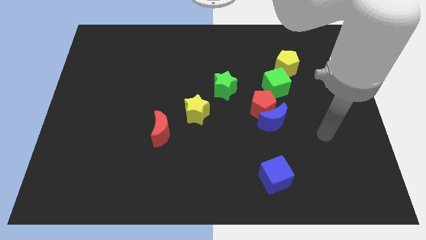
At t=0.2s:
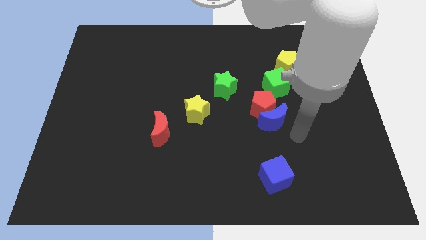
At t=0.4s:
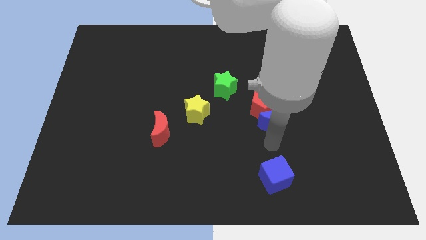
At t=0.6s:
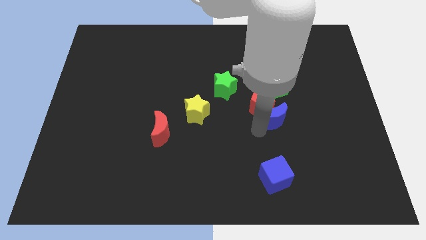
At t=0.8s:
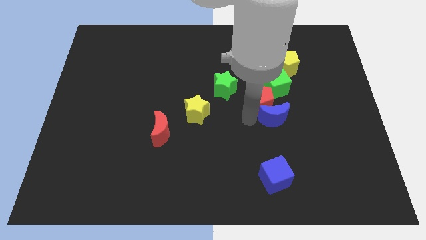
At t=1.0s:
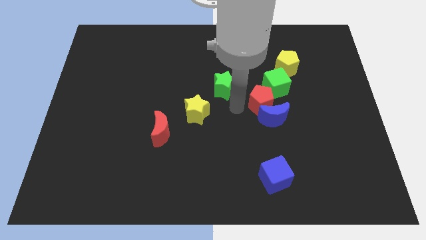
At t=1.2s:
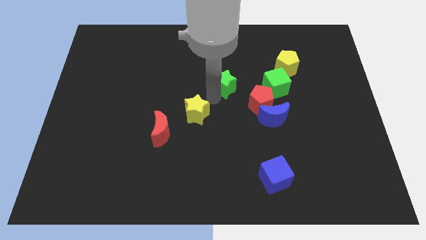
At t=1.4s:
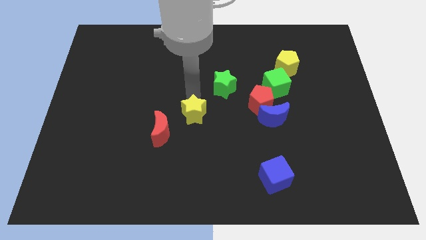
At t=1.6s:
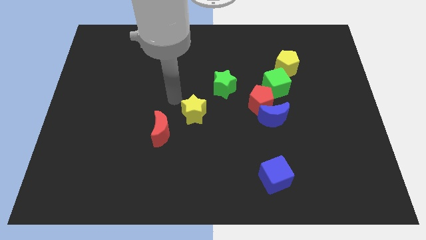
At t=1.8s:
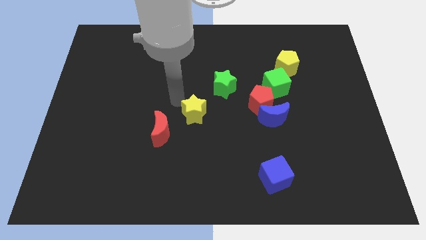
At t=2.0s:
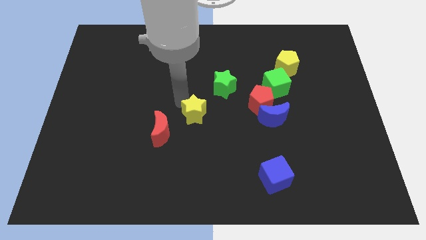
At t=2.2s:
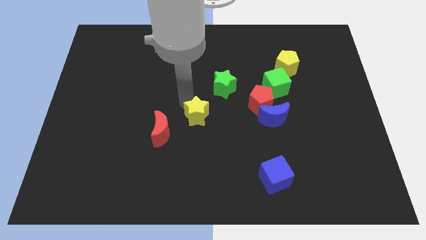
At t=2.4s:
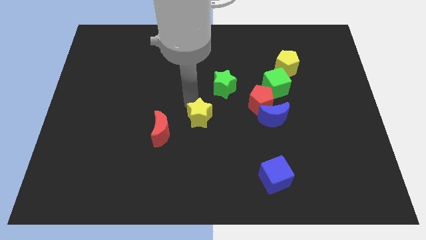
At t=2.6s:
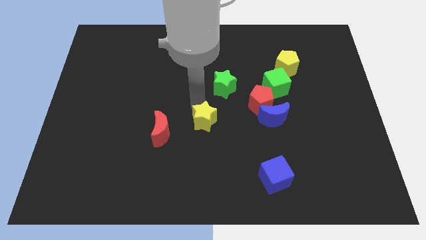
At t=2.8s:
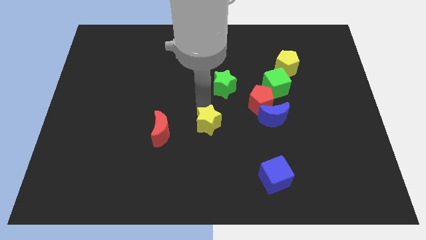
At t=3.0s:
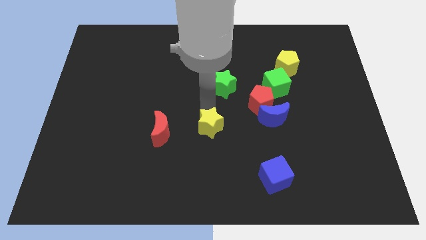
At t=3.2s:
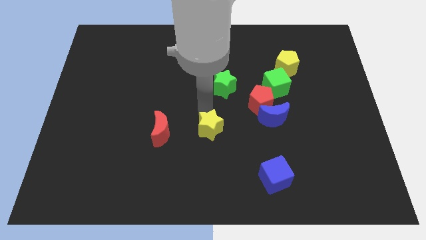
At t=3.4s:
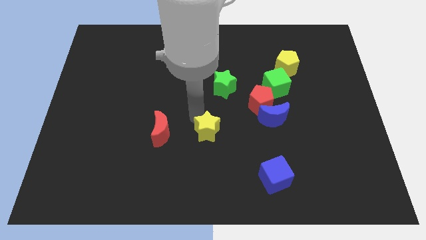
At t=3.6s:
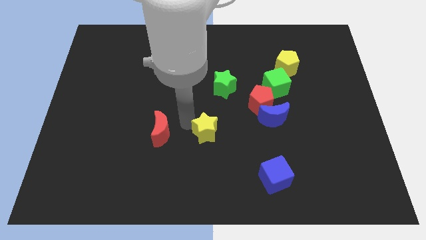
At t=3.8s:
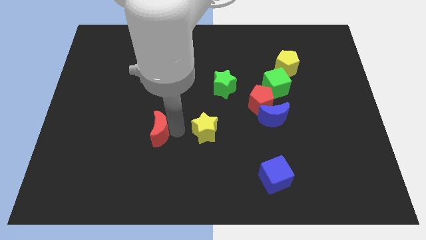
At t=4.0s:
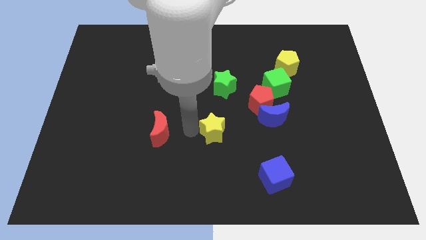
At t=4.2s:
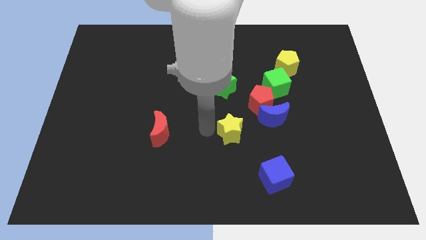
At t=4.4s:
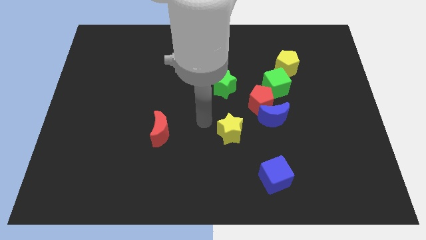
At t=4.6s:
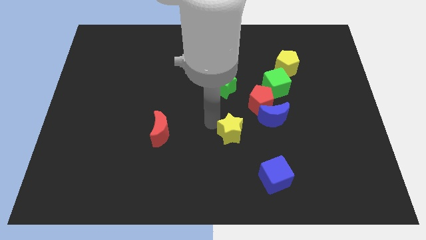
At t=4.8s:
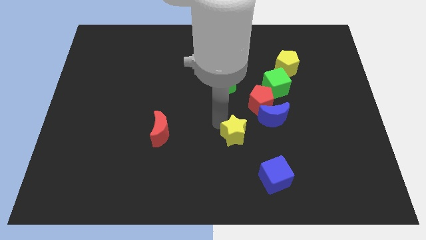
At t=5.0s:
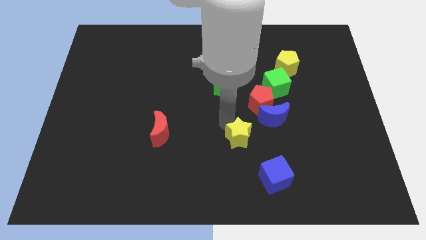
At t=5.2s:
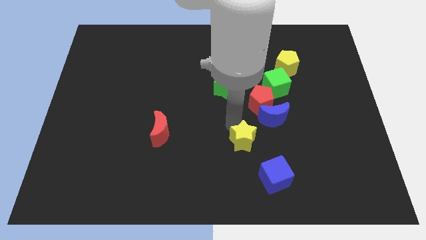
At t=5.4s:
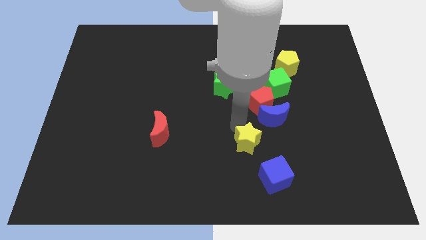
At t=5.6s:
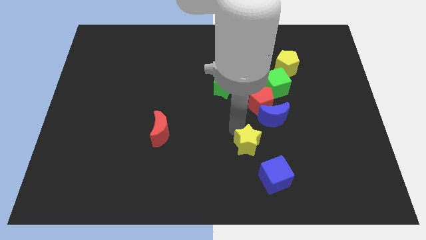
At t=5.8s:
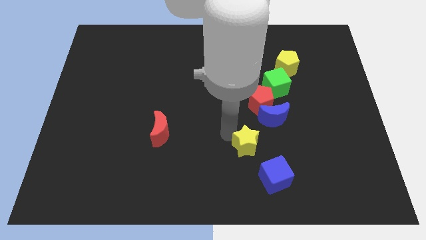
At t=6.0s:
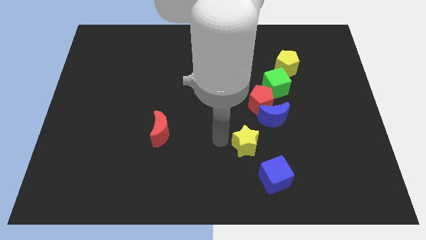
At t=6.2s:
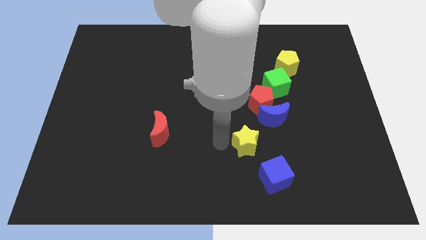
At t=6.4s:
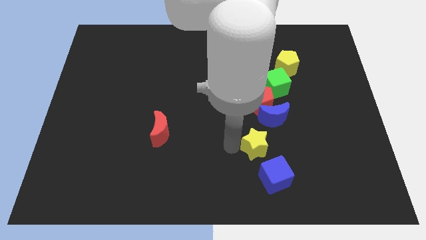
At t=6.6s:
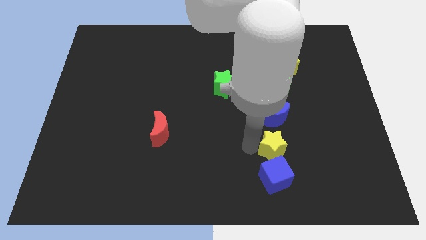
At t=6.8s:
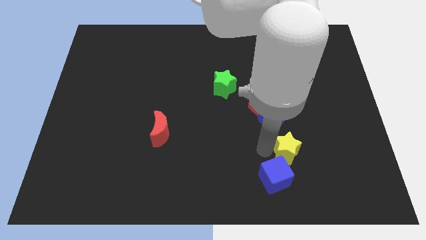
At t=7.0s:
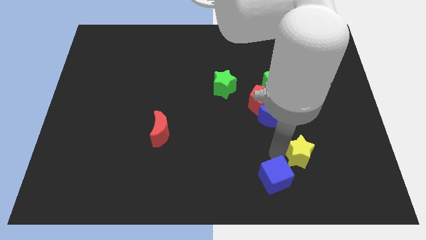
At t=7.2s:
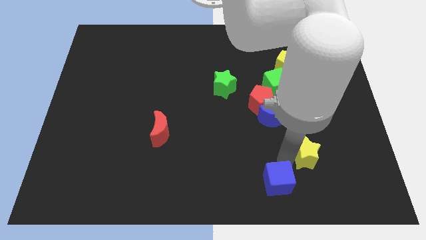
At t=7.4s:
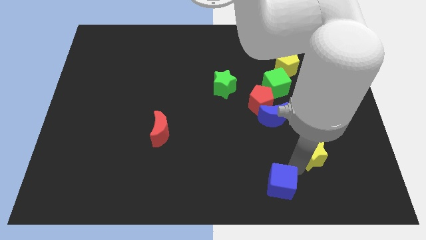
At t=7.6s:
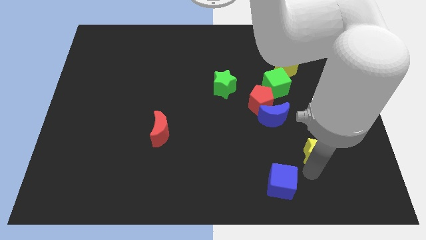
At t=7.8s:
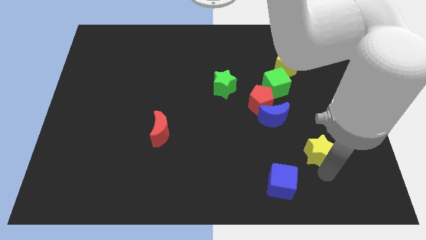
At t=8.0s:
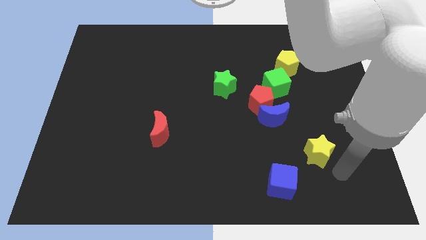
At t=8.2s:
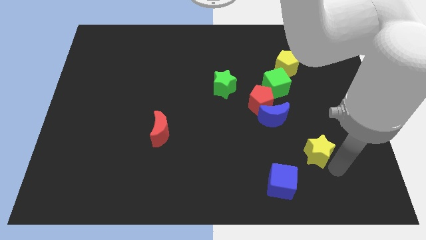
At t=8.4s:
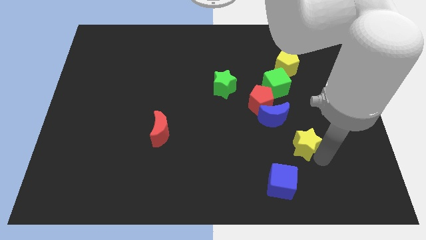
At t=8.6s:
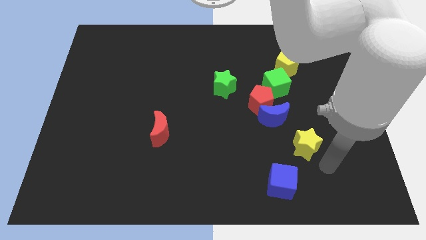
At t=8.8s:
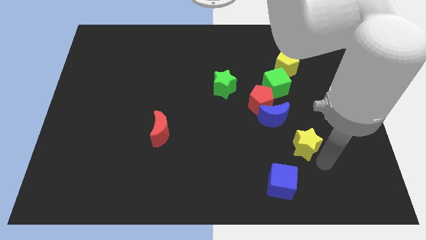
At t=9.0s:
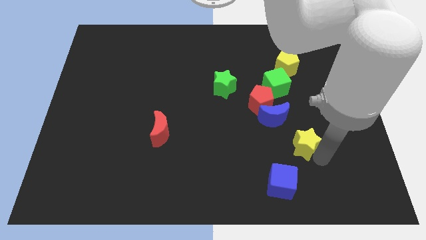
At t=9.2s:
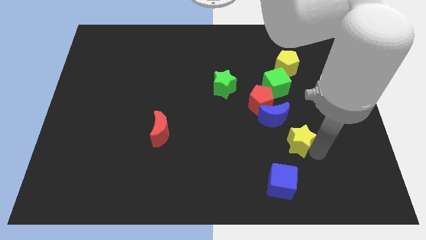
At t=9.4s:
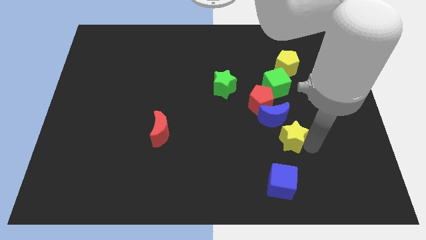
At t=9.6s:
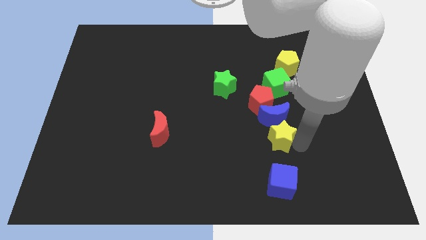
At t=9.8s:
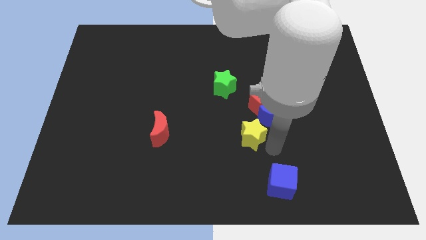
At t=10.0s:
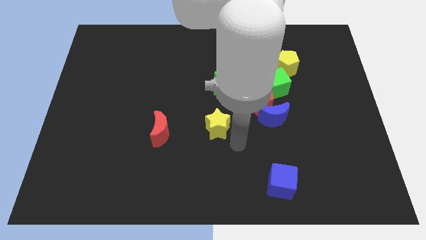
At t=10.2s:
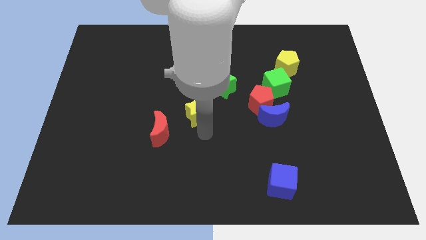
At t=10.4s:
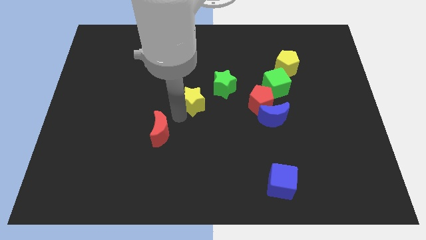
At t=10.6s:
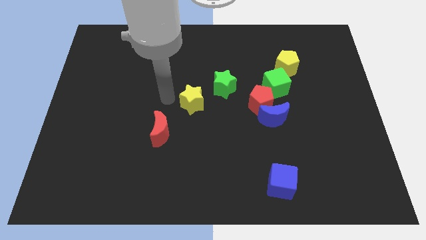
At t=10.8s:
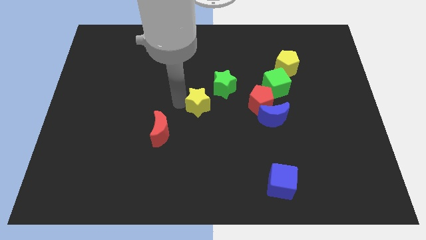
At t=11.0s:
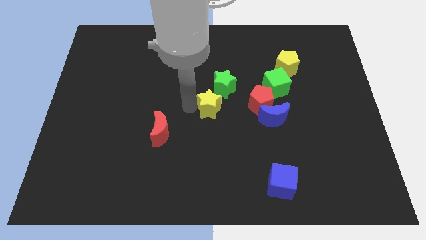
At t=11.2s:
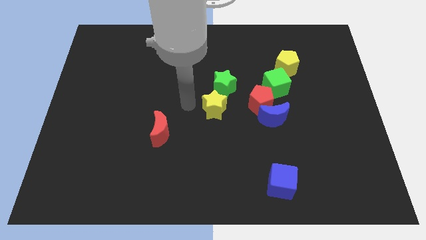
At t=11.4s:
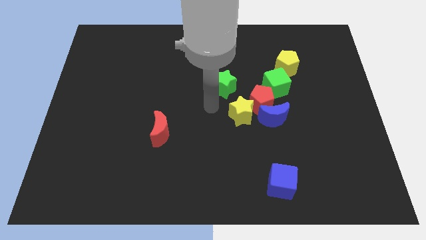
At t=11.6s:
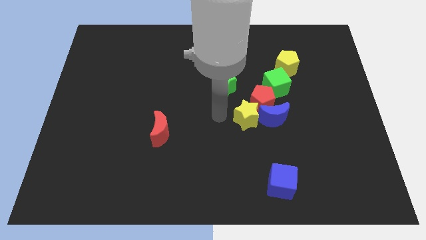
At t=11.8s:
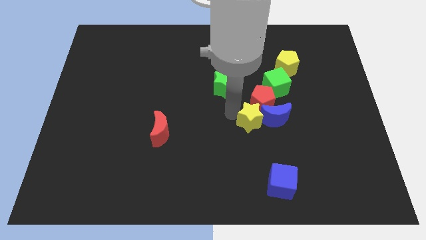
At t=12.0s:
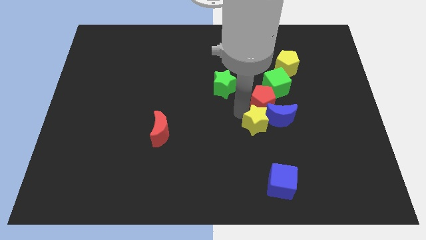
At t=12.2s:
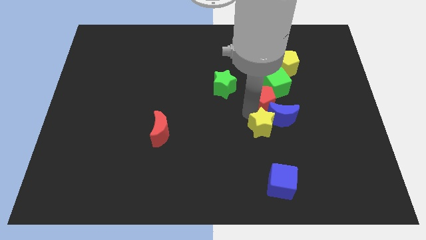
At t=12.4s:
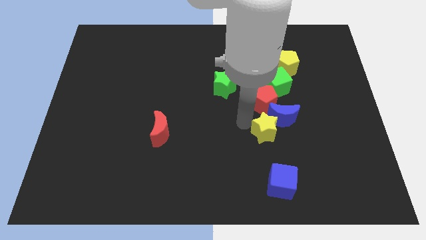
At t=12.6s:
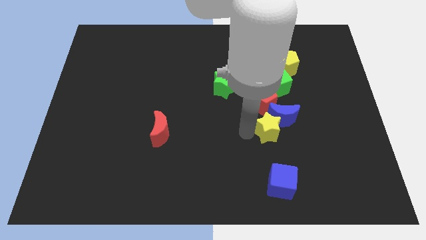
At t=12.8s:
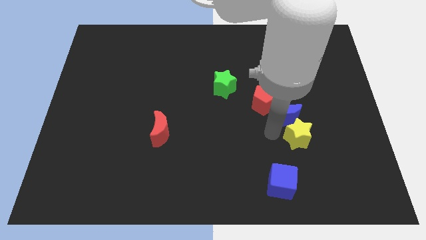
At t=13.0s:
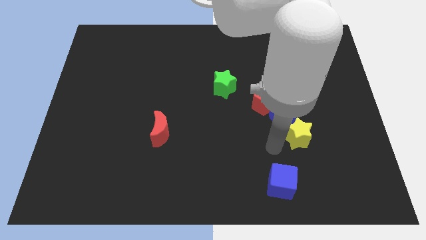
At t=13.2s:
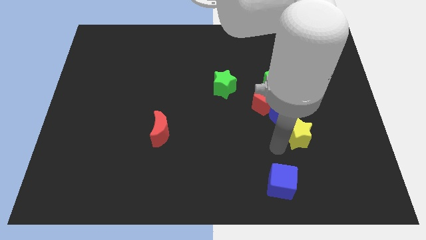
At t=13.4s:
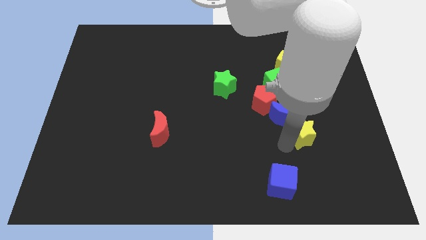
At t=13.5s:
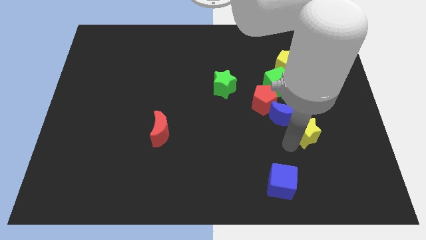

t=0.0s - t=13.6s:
put the yellow star to the right side of the blue moon
